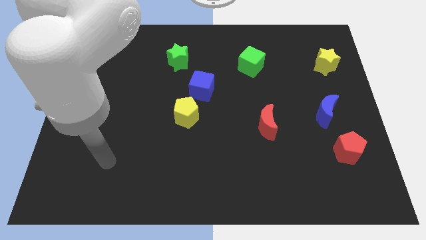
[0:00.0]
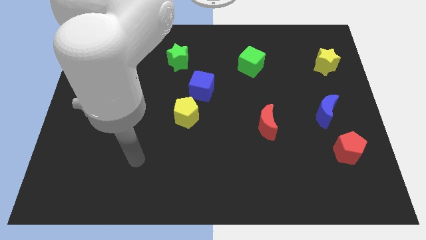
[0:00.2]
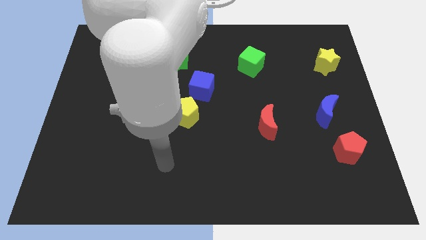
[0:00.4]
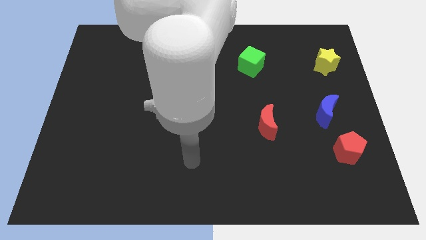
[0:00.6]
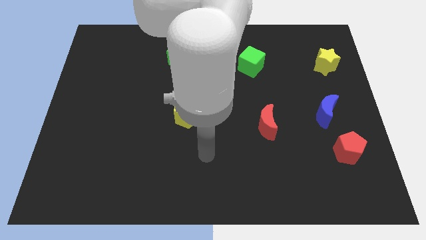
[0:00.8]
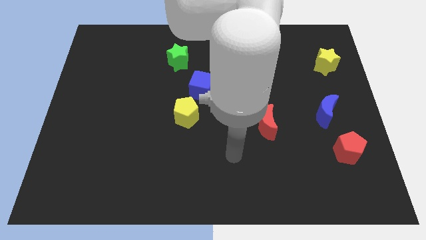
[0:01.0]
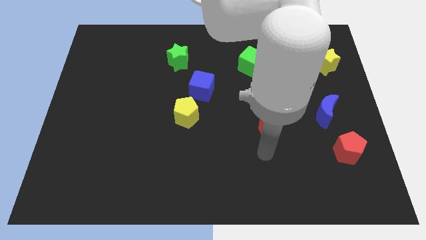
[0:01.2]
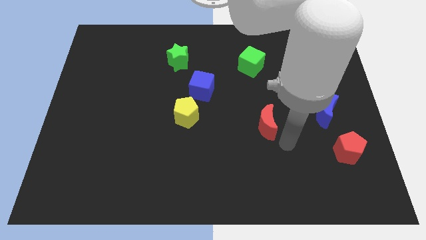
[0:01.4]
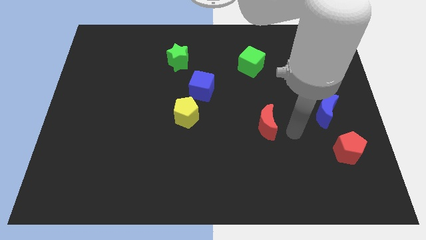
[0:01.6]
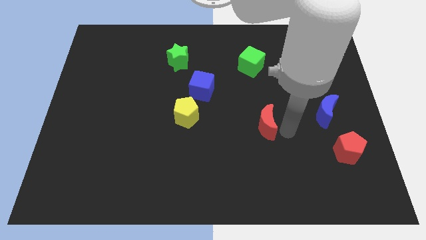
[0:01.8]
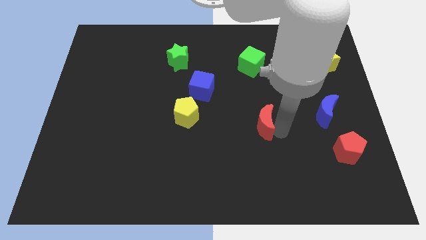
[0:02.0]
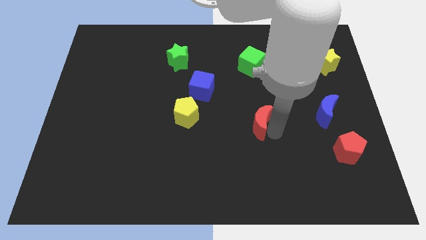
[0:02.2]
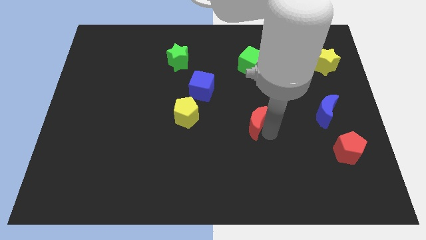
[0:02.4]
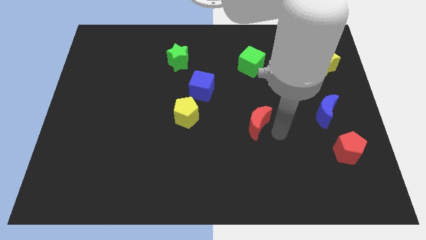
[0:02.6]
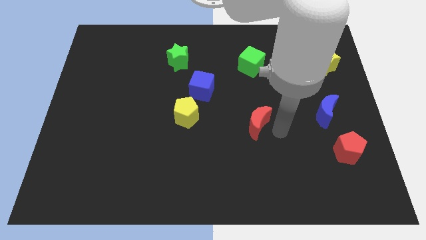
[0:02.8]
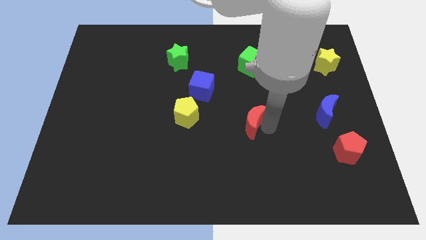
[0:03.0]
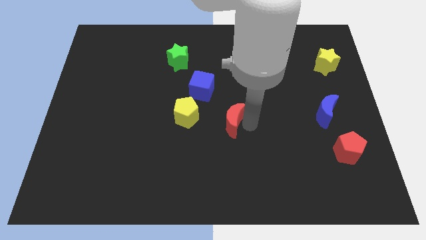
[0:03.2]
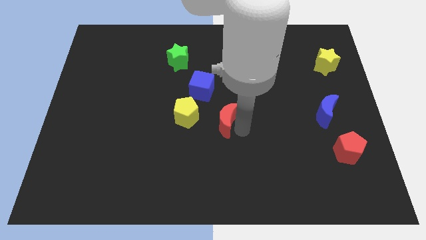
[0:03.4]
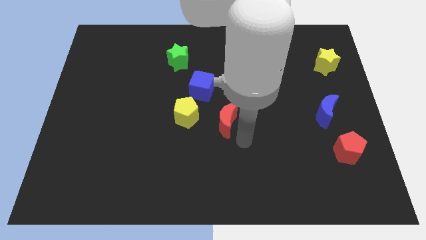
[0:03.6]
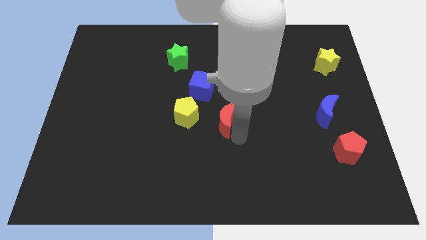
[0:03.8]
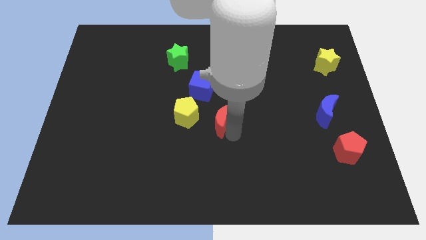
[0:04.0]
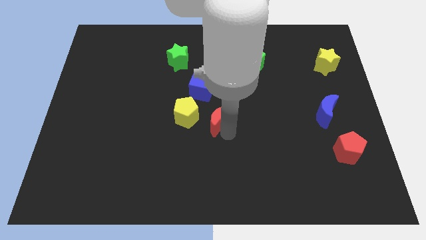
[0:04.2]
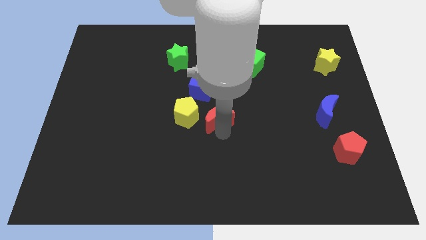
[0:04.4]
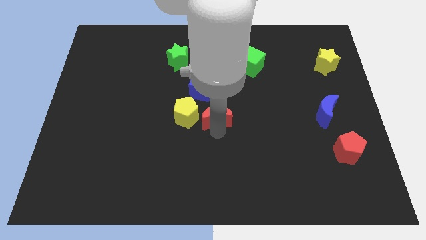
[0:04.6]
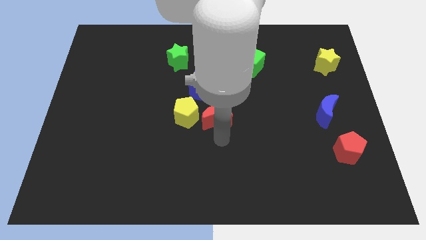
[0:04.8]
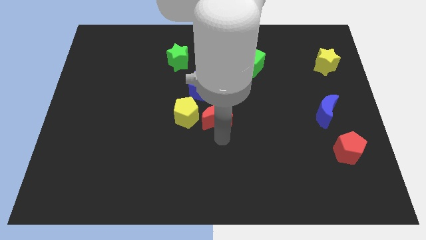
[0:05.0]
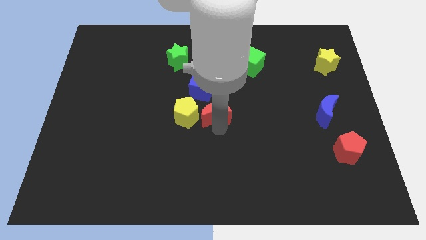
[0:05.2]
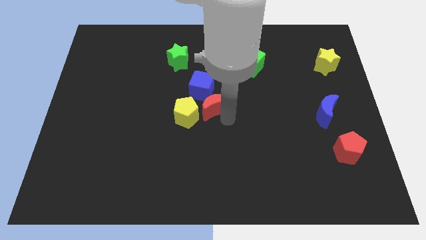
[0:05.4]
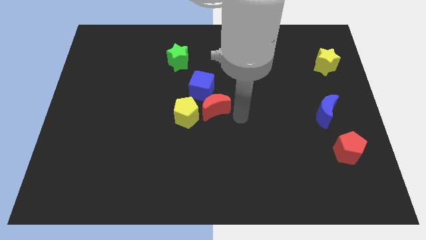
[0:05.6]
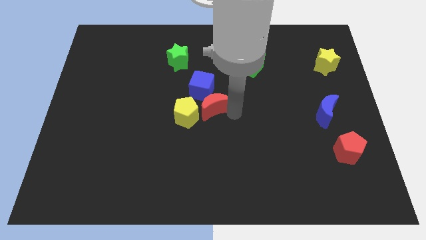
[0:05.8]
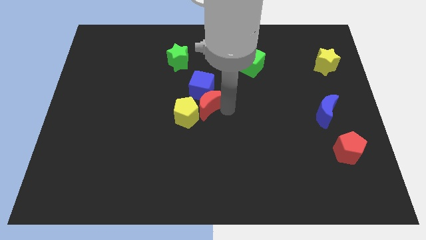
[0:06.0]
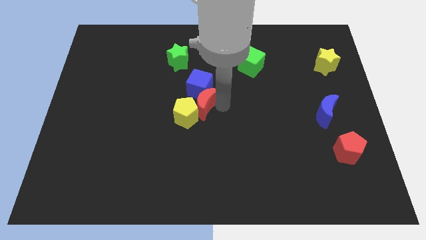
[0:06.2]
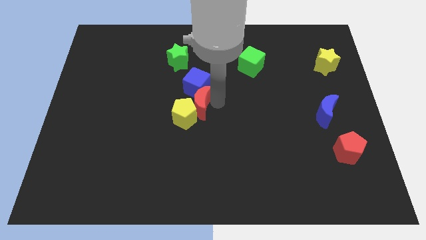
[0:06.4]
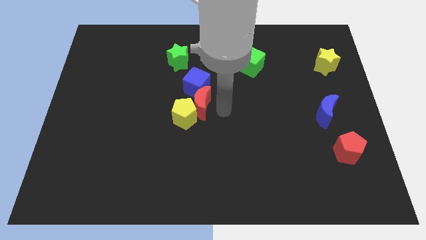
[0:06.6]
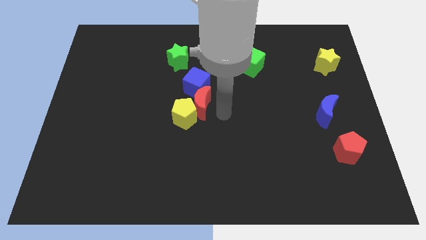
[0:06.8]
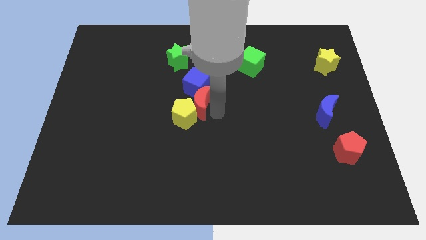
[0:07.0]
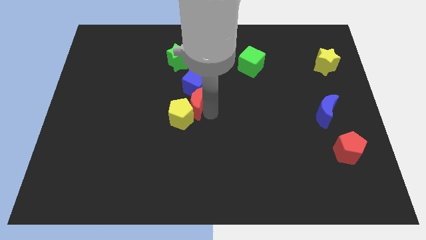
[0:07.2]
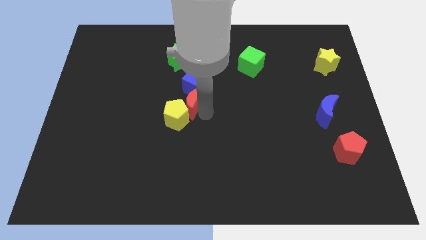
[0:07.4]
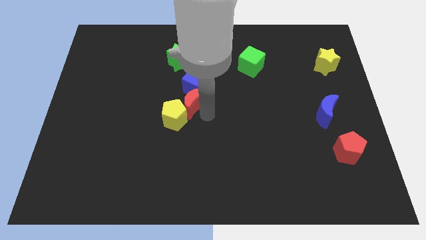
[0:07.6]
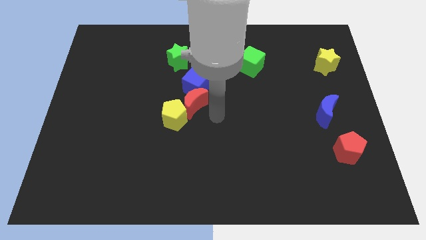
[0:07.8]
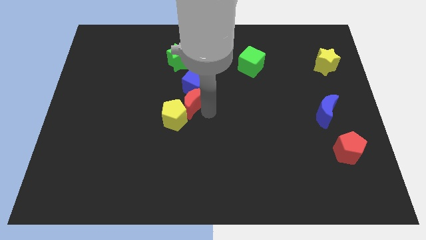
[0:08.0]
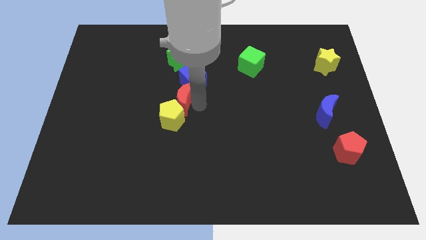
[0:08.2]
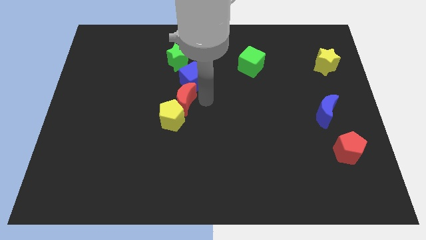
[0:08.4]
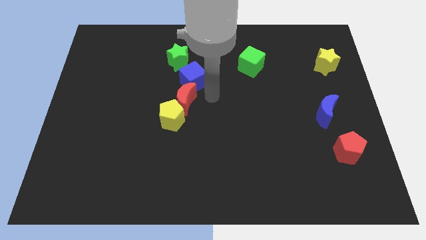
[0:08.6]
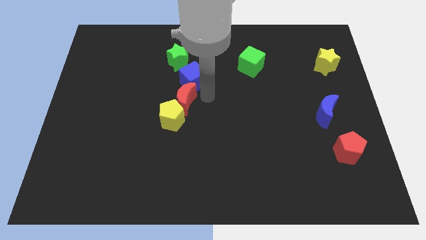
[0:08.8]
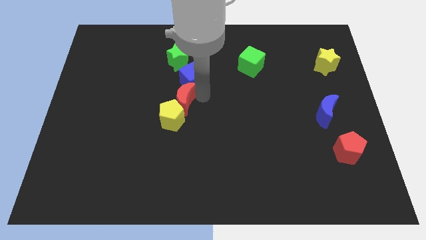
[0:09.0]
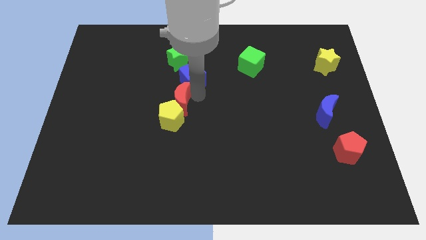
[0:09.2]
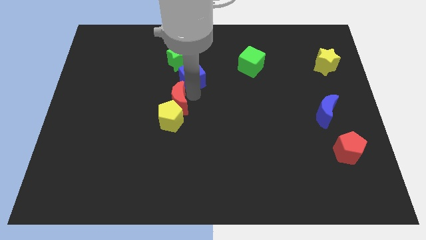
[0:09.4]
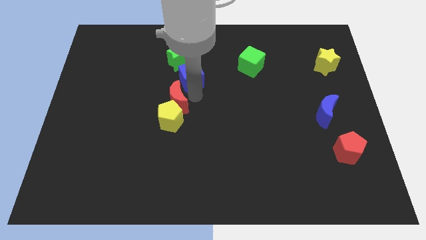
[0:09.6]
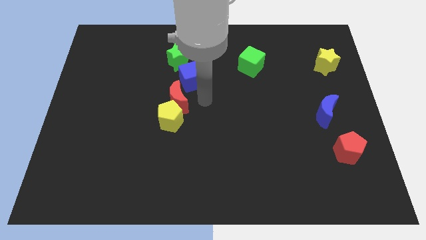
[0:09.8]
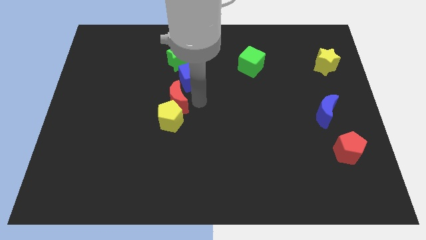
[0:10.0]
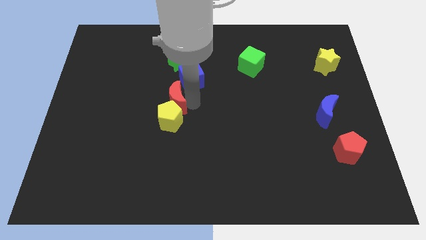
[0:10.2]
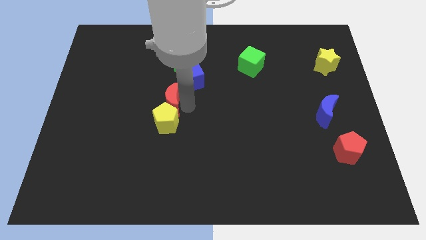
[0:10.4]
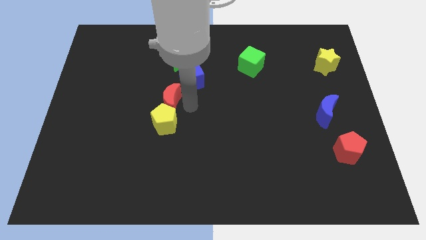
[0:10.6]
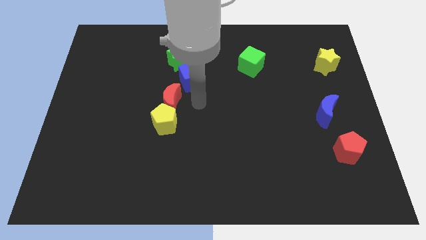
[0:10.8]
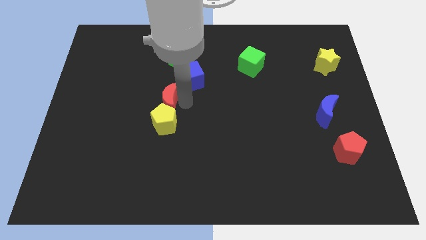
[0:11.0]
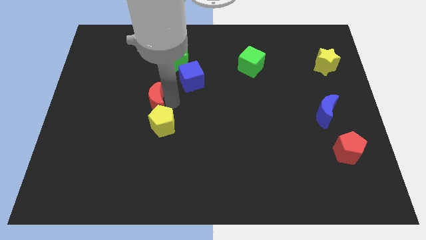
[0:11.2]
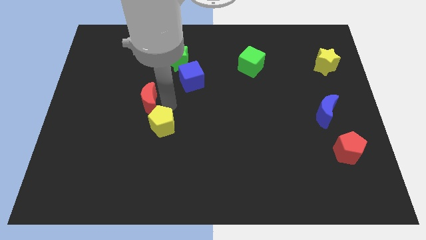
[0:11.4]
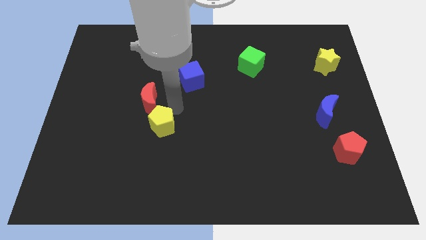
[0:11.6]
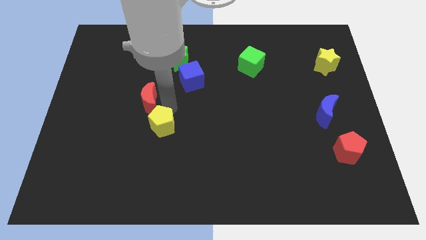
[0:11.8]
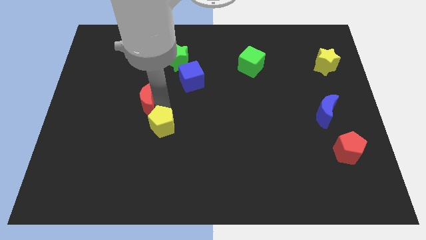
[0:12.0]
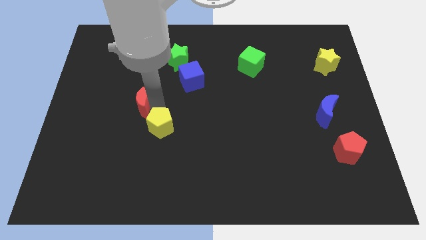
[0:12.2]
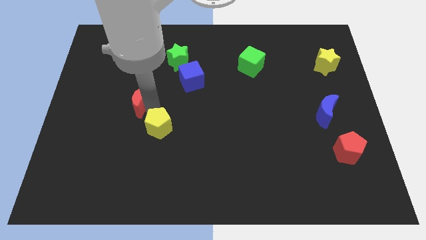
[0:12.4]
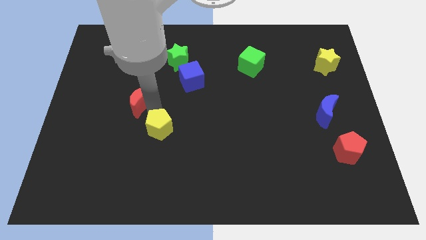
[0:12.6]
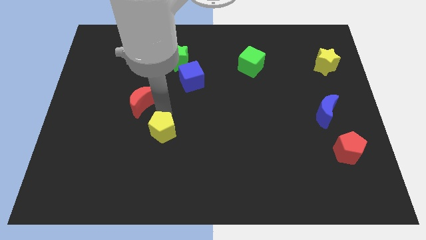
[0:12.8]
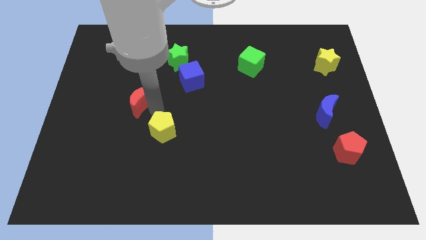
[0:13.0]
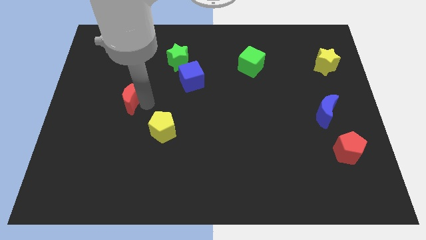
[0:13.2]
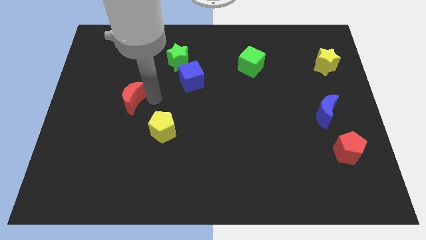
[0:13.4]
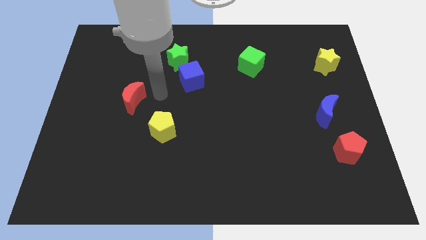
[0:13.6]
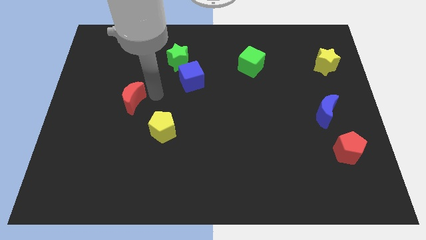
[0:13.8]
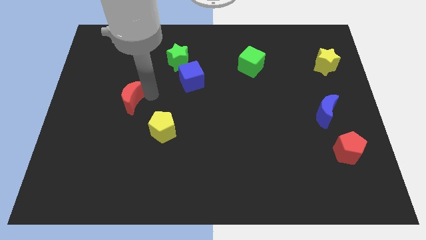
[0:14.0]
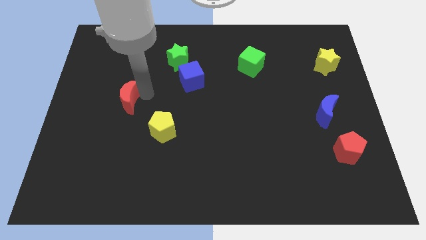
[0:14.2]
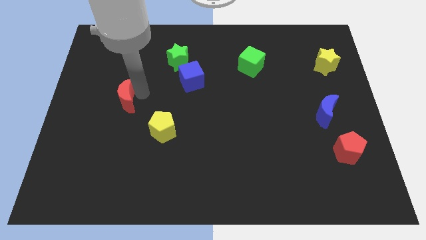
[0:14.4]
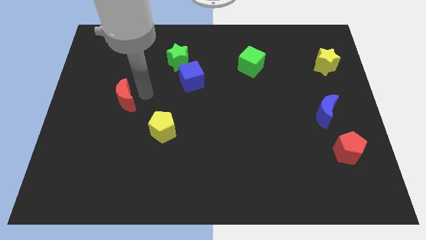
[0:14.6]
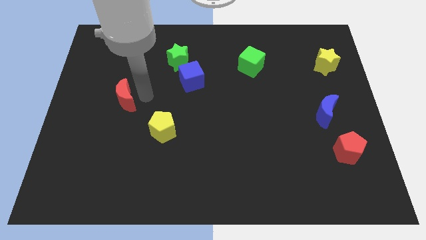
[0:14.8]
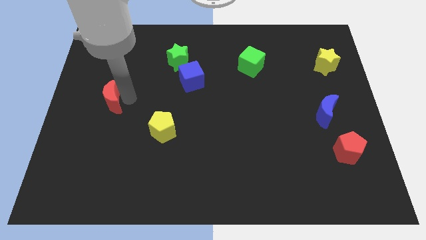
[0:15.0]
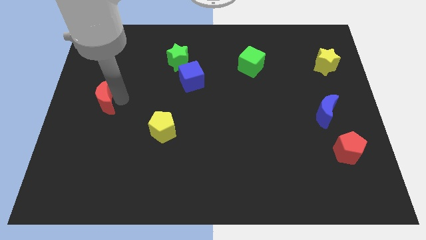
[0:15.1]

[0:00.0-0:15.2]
push the red moon to the left side

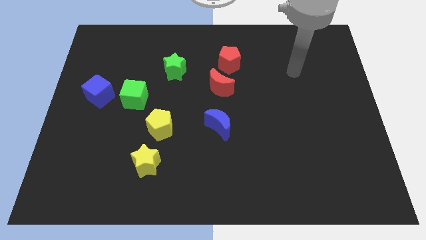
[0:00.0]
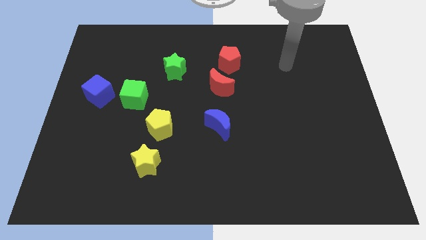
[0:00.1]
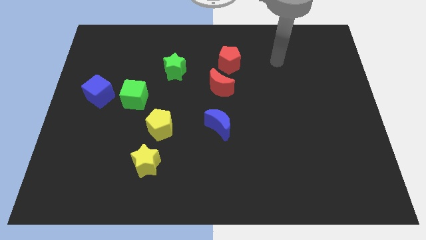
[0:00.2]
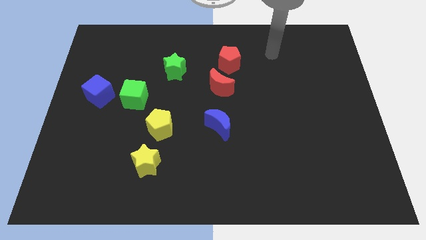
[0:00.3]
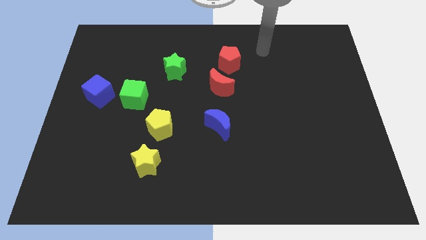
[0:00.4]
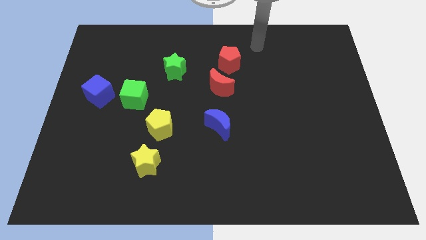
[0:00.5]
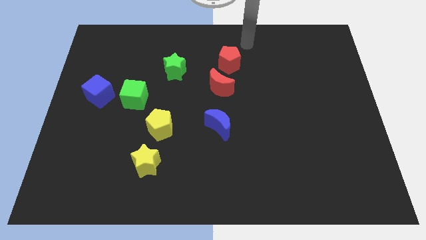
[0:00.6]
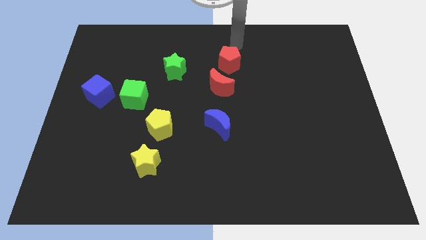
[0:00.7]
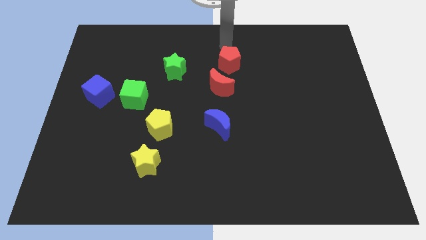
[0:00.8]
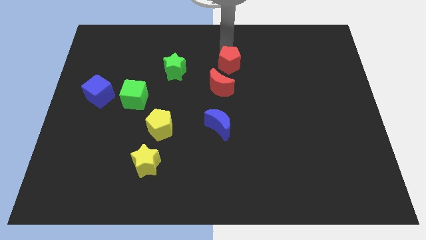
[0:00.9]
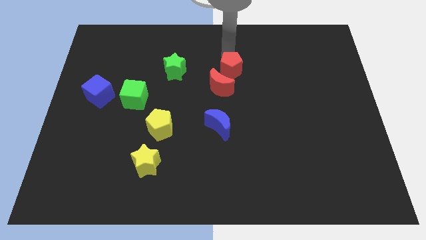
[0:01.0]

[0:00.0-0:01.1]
push the red pentagon to the middle
